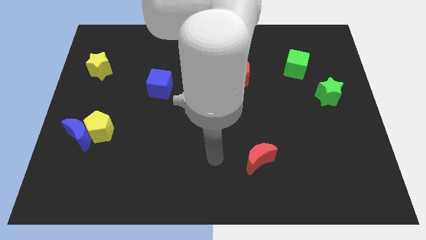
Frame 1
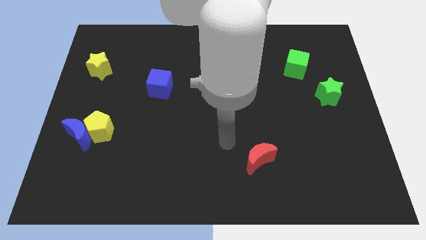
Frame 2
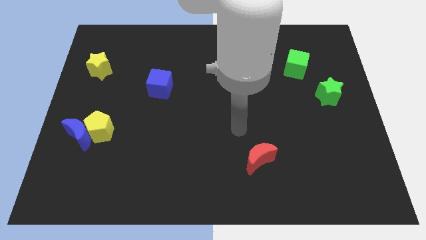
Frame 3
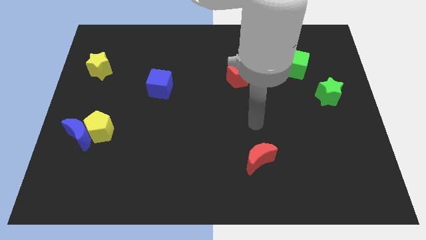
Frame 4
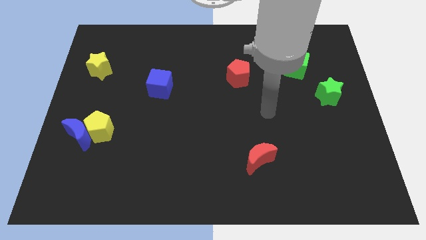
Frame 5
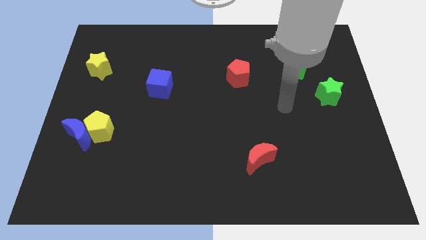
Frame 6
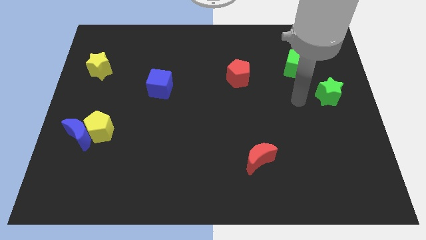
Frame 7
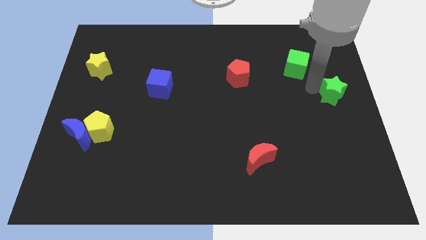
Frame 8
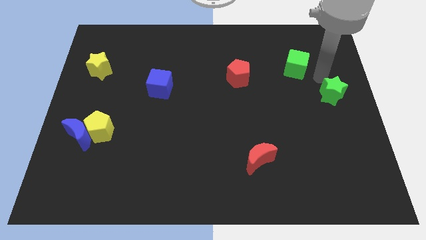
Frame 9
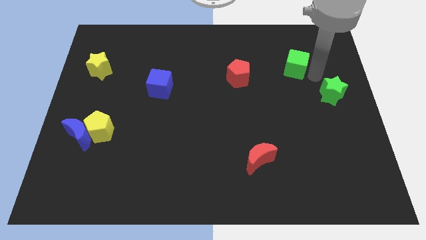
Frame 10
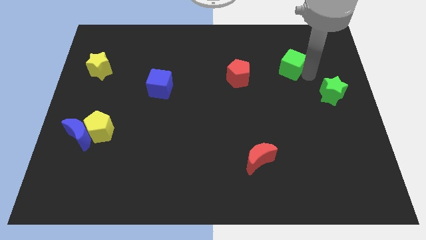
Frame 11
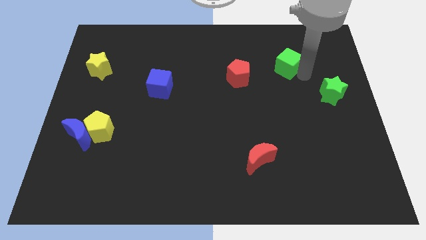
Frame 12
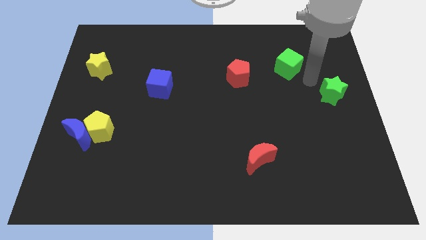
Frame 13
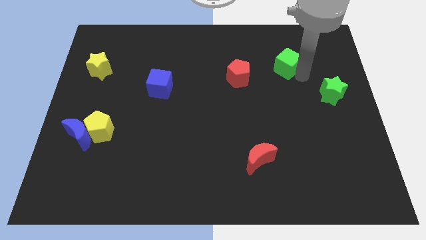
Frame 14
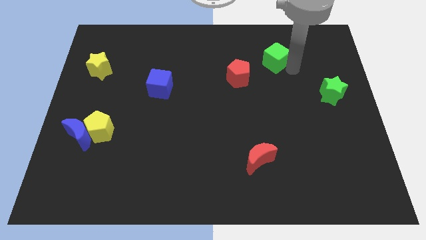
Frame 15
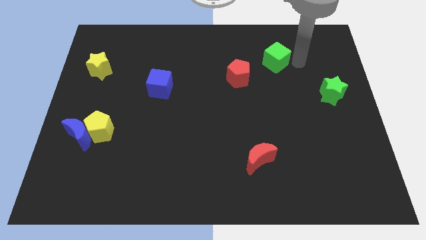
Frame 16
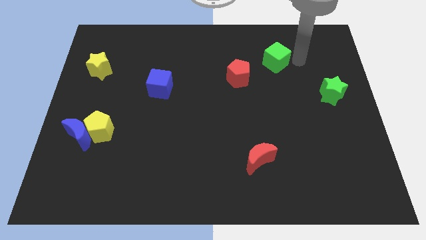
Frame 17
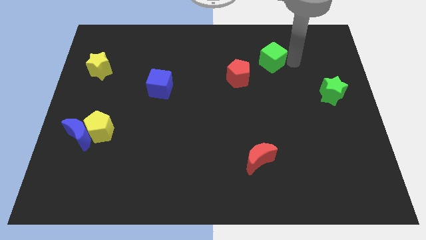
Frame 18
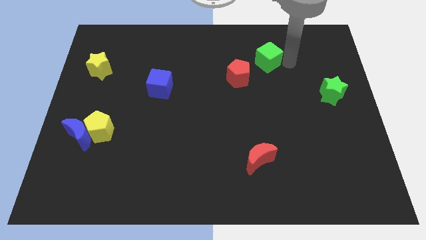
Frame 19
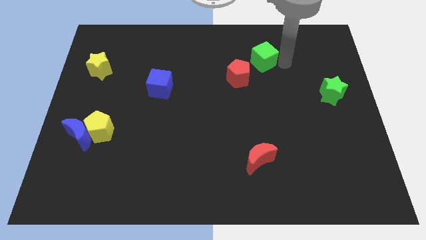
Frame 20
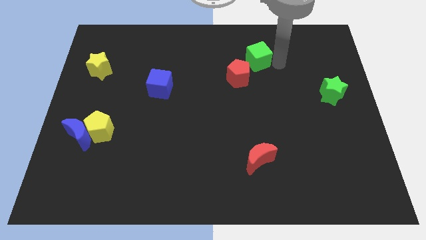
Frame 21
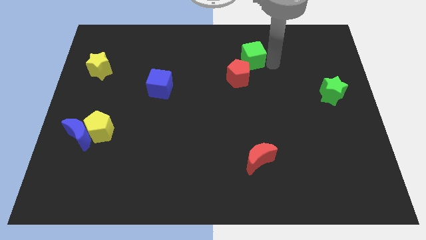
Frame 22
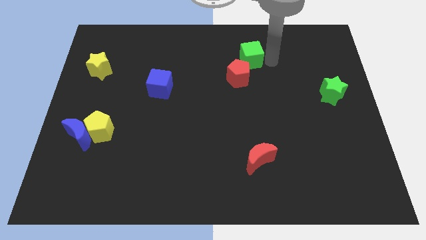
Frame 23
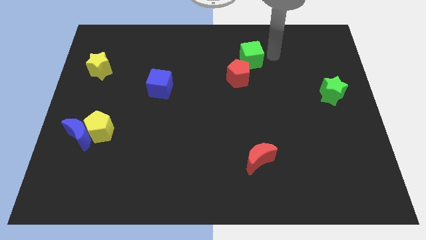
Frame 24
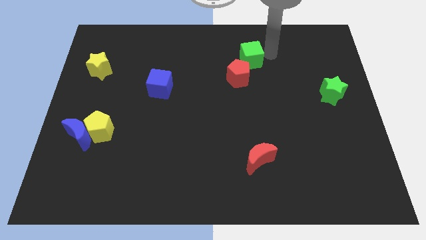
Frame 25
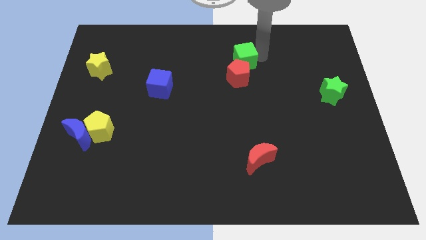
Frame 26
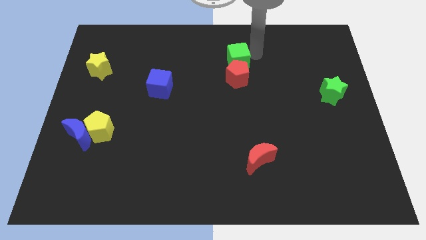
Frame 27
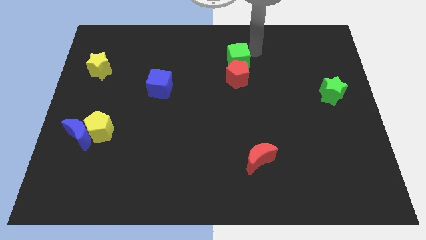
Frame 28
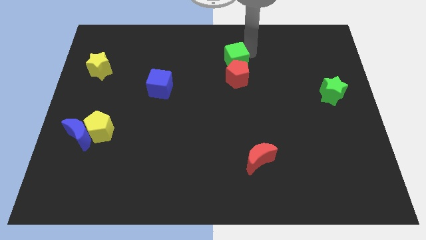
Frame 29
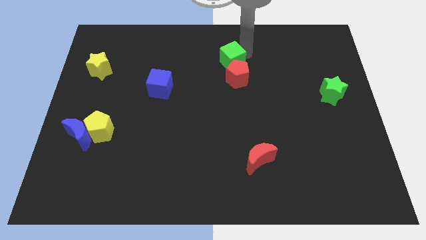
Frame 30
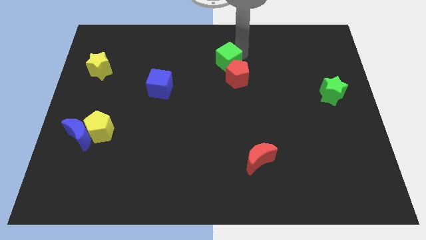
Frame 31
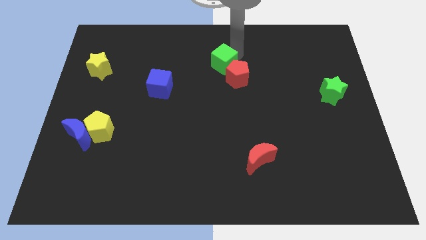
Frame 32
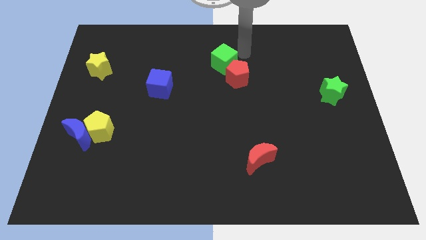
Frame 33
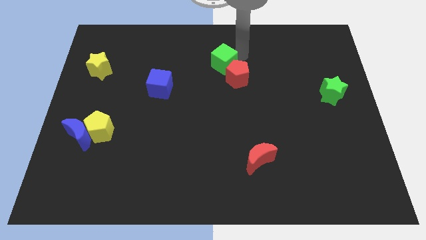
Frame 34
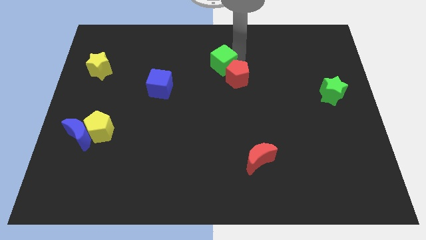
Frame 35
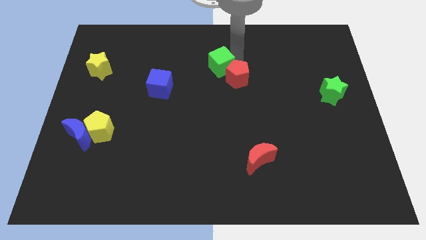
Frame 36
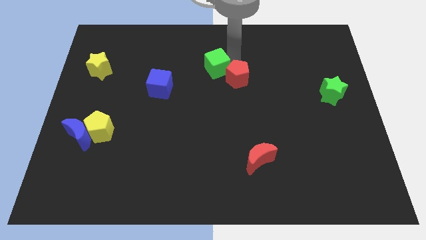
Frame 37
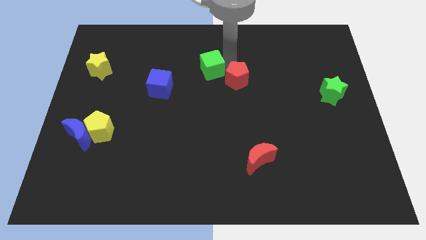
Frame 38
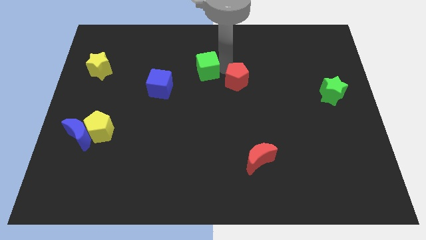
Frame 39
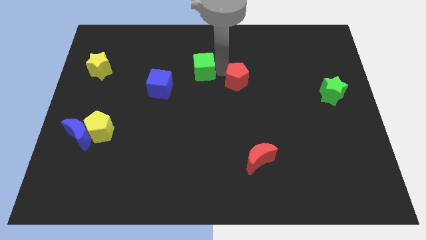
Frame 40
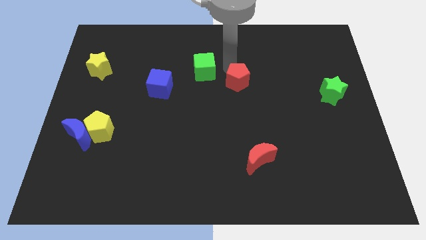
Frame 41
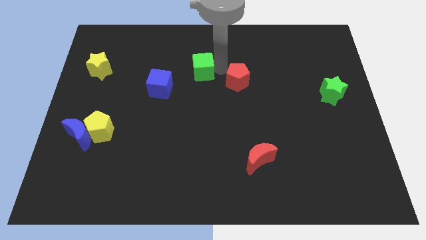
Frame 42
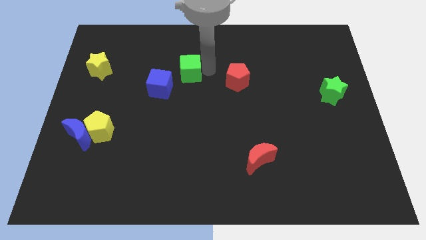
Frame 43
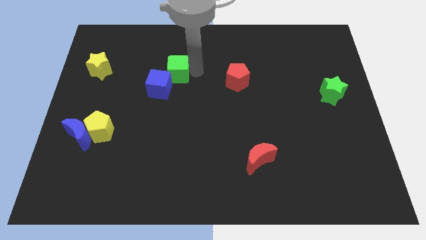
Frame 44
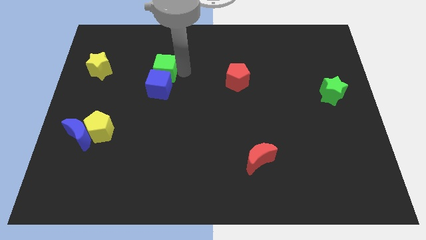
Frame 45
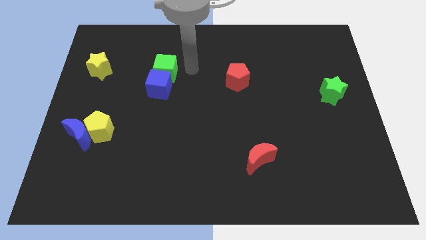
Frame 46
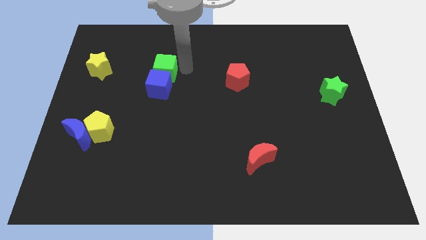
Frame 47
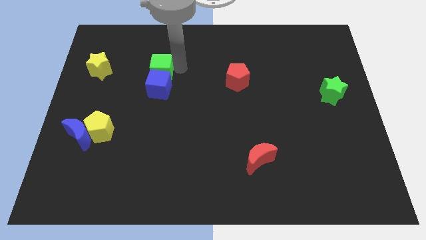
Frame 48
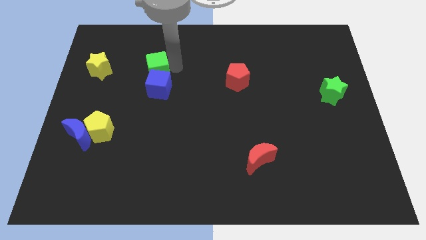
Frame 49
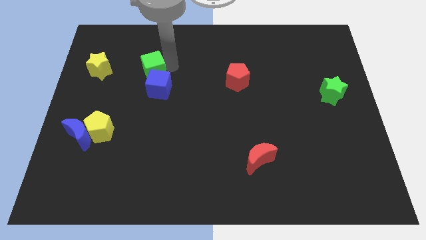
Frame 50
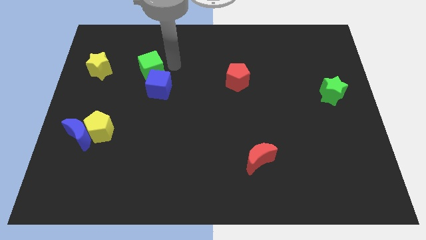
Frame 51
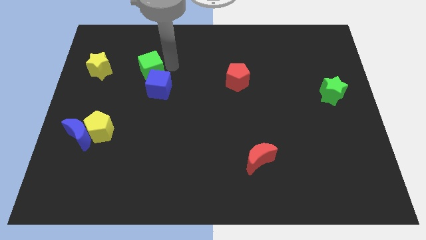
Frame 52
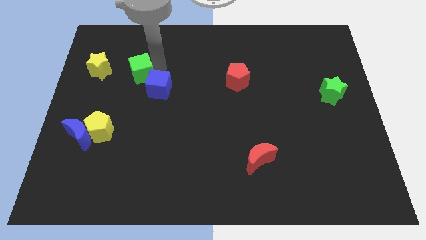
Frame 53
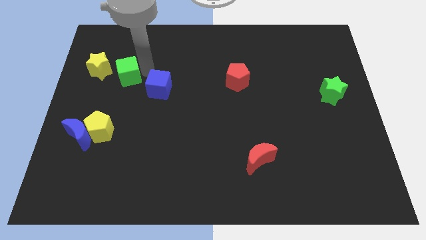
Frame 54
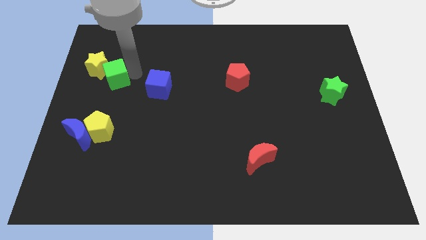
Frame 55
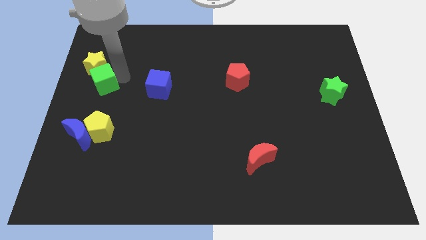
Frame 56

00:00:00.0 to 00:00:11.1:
move the green cube to the center left

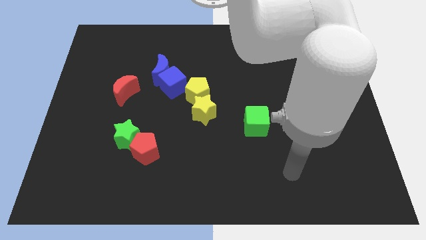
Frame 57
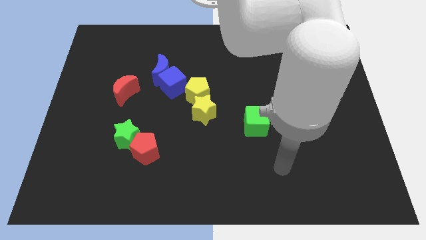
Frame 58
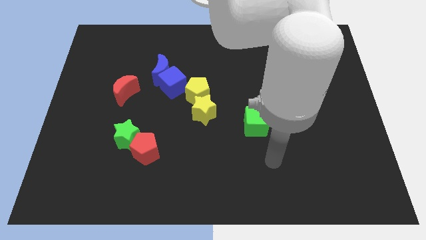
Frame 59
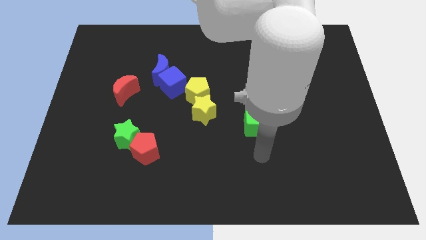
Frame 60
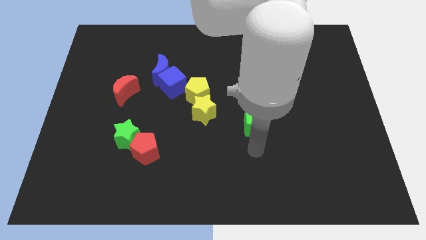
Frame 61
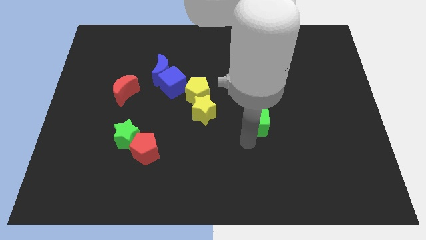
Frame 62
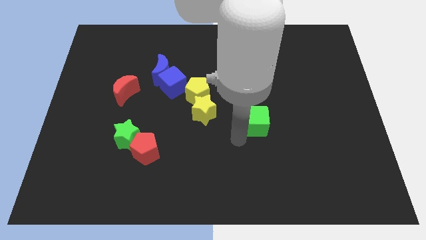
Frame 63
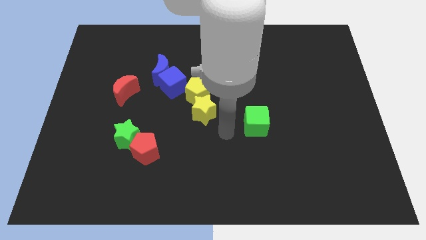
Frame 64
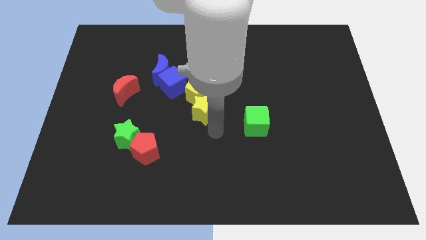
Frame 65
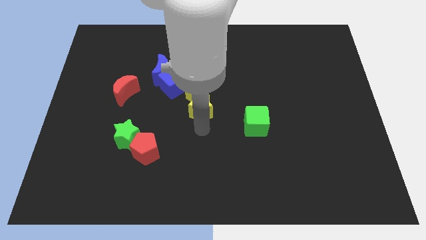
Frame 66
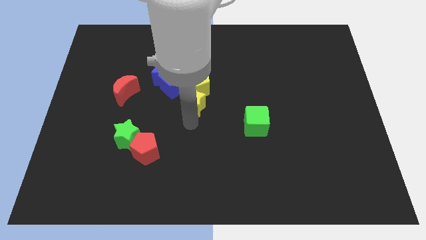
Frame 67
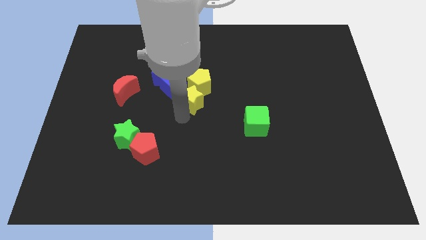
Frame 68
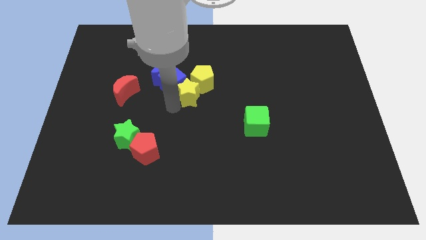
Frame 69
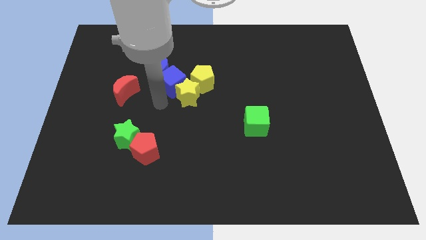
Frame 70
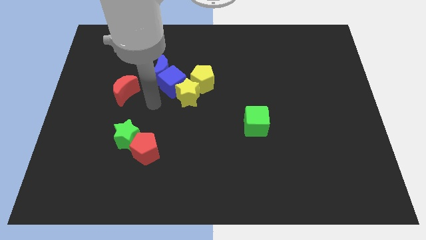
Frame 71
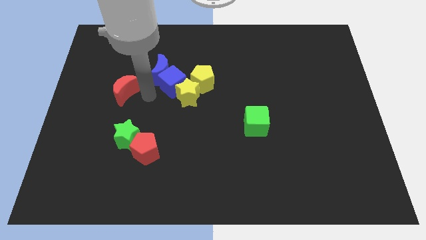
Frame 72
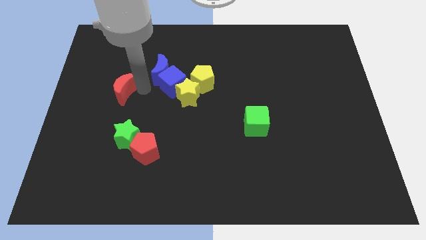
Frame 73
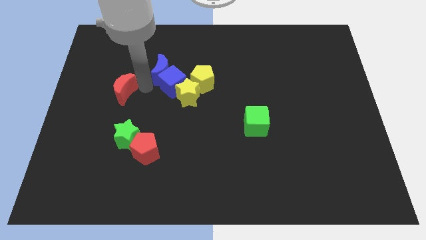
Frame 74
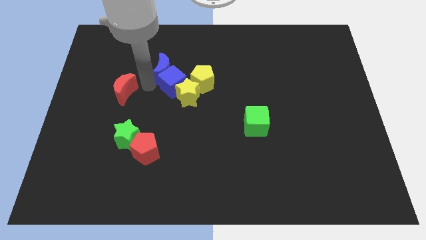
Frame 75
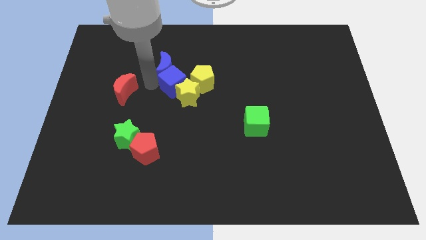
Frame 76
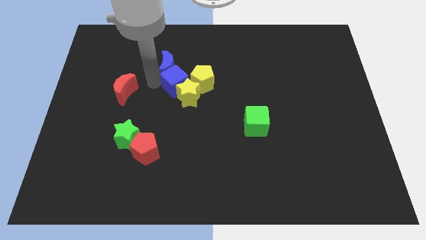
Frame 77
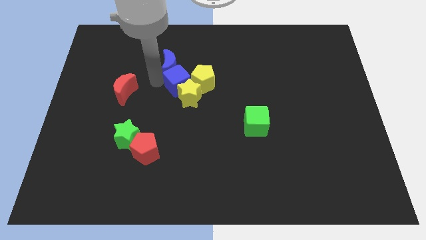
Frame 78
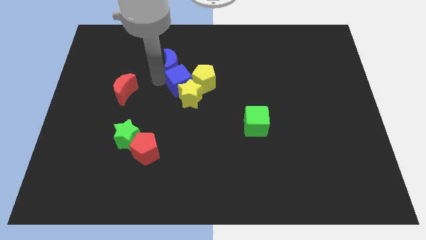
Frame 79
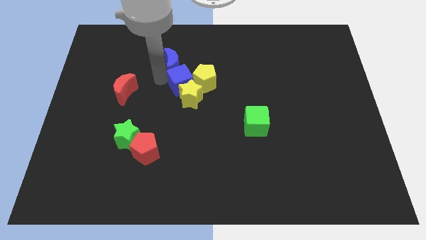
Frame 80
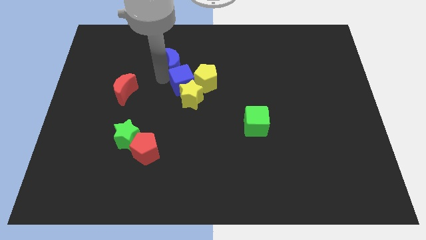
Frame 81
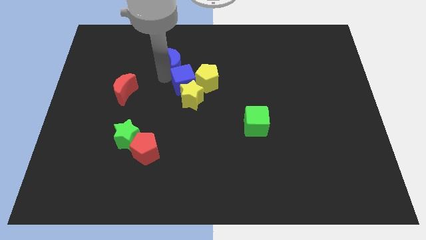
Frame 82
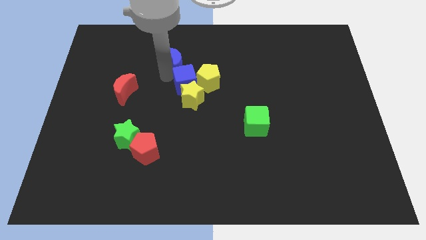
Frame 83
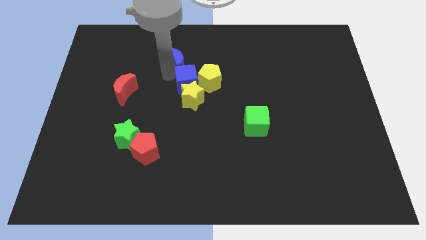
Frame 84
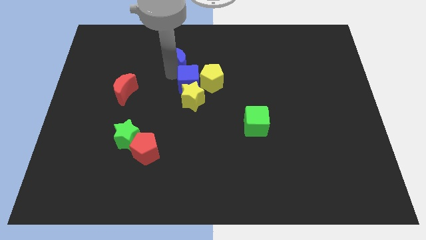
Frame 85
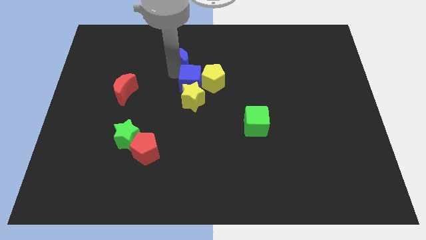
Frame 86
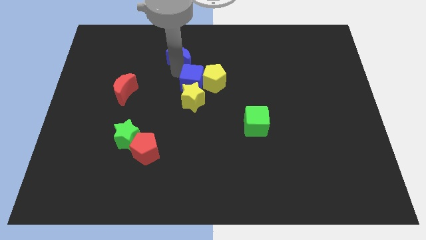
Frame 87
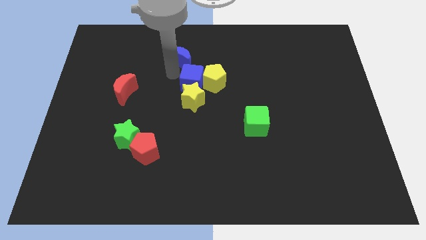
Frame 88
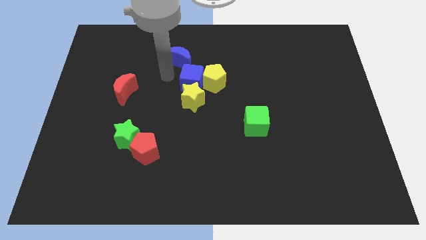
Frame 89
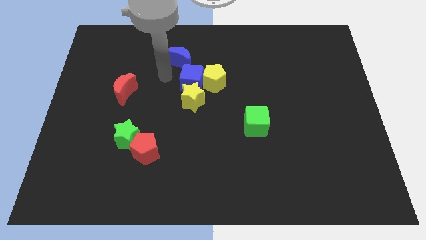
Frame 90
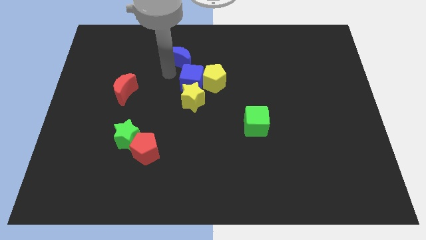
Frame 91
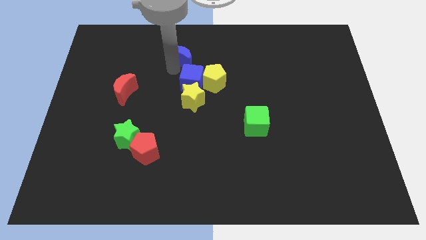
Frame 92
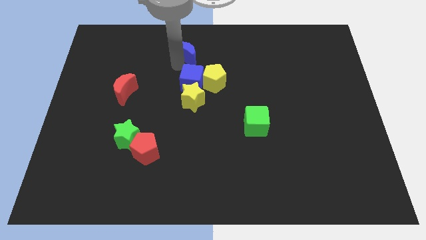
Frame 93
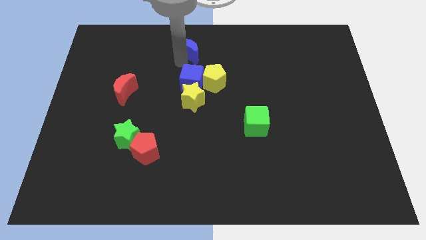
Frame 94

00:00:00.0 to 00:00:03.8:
push the blue moon to the towards your base
